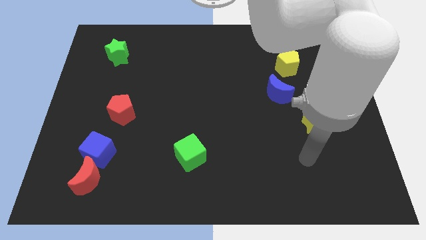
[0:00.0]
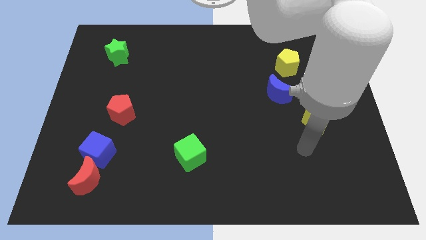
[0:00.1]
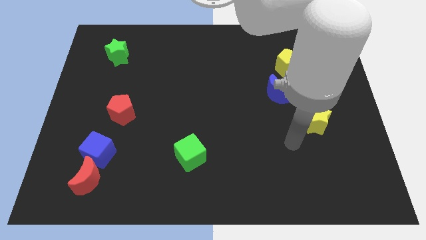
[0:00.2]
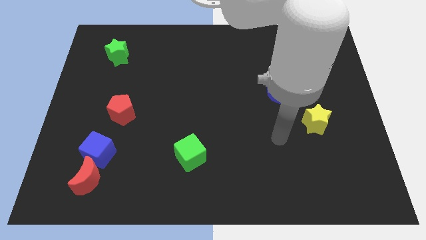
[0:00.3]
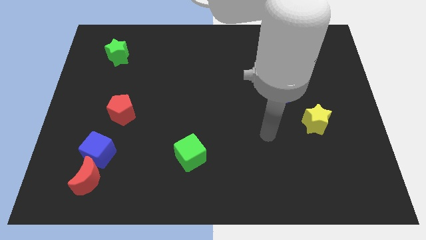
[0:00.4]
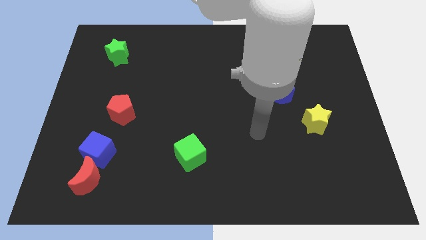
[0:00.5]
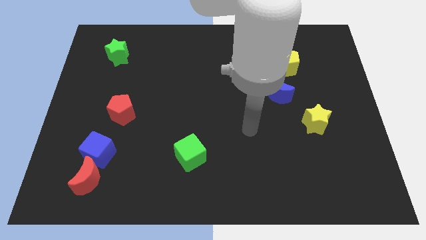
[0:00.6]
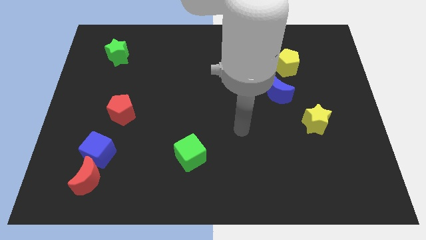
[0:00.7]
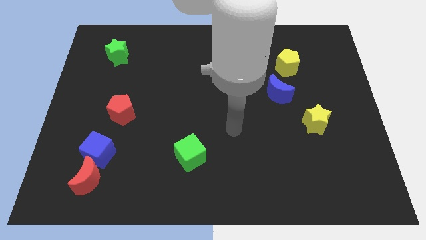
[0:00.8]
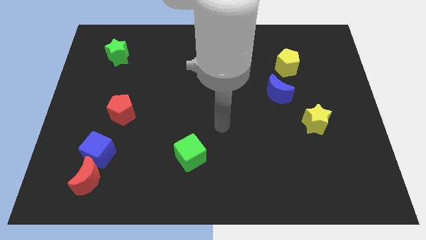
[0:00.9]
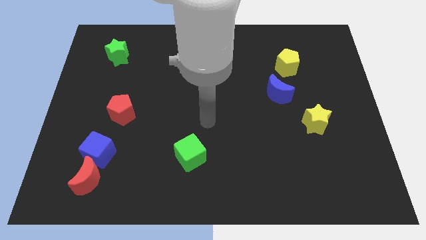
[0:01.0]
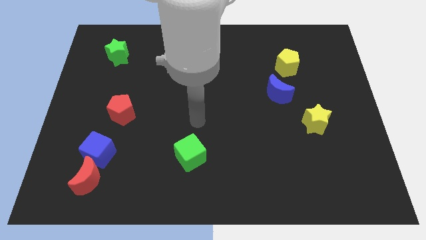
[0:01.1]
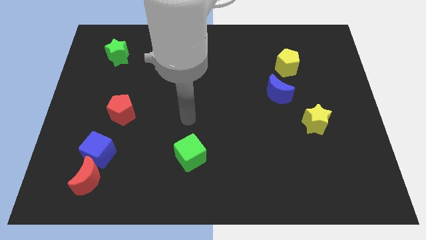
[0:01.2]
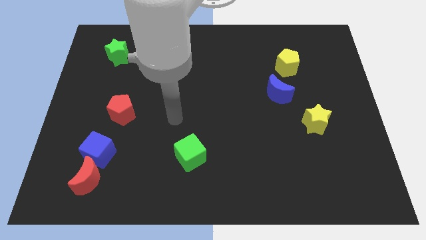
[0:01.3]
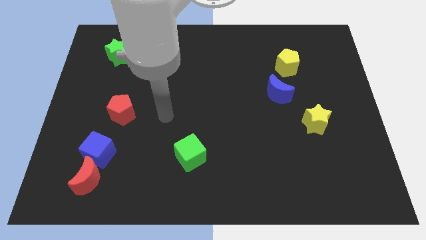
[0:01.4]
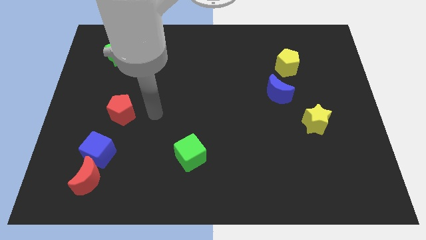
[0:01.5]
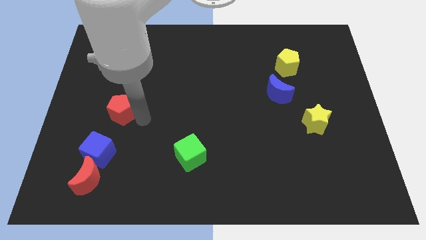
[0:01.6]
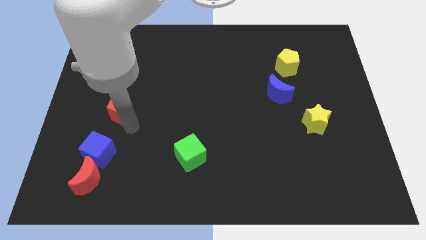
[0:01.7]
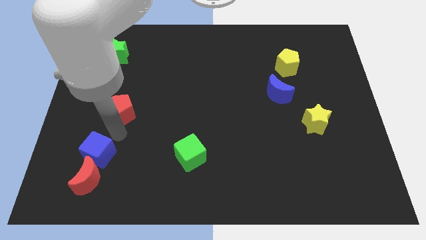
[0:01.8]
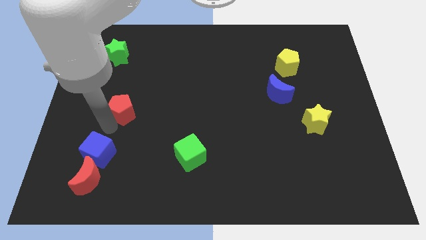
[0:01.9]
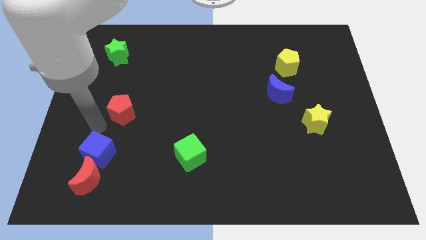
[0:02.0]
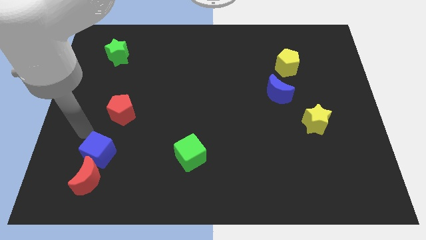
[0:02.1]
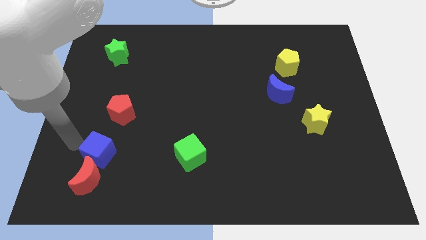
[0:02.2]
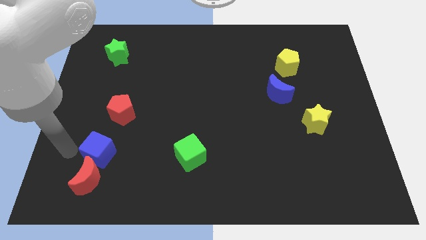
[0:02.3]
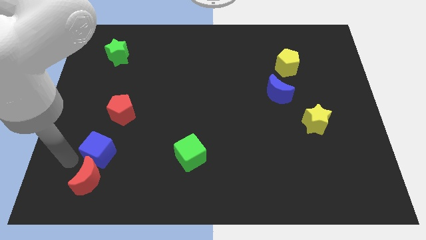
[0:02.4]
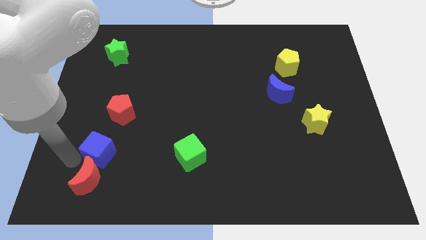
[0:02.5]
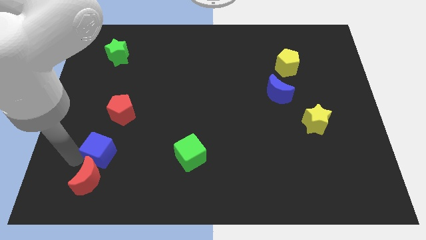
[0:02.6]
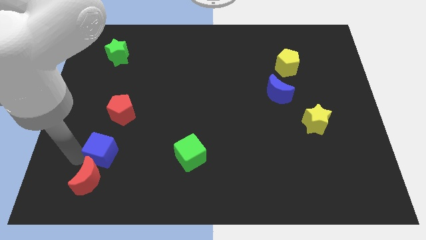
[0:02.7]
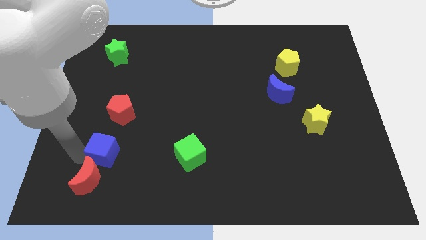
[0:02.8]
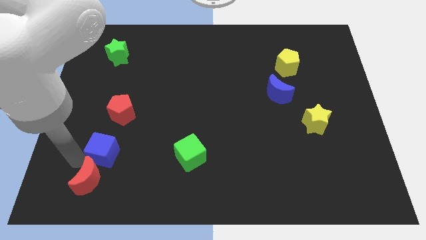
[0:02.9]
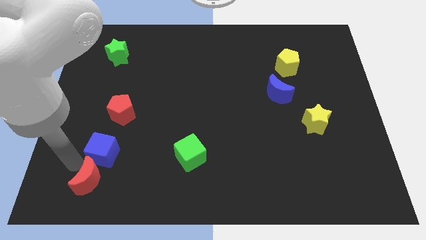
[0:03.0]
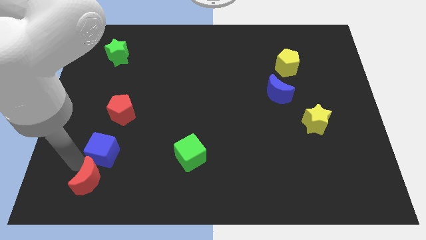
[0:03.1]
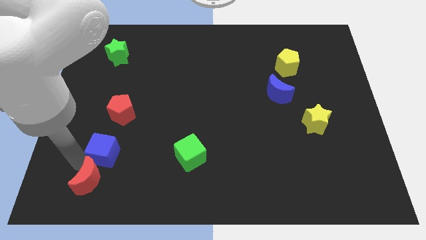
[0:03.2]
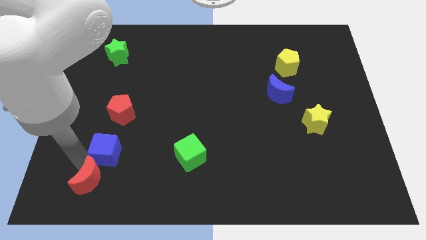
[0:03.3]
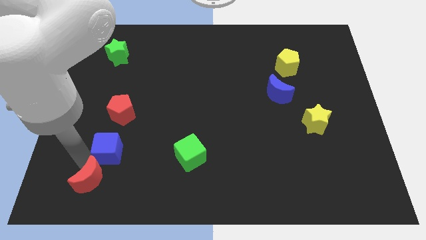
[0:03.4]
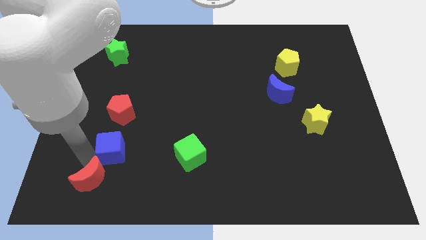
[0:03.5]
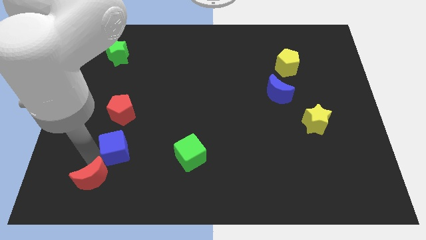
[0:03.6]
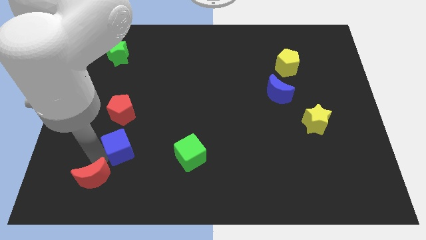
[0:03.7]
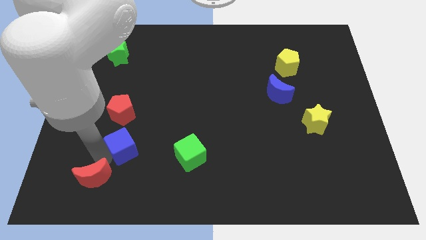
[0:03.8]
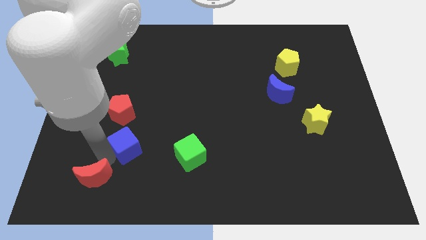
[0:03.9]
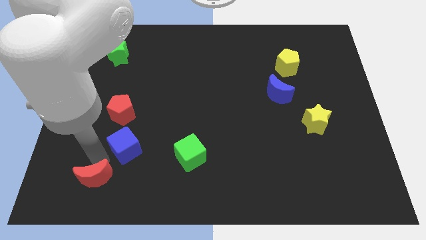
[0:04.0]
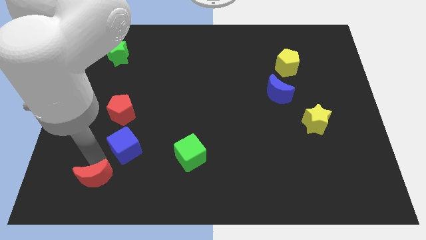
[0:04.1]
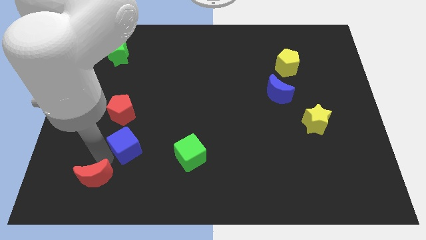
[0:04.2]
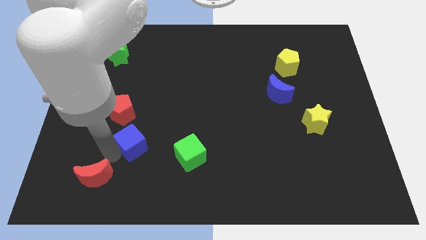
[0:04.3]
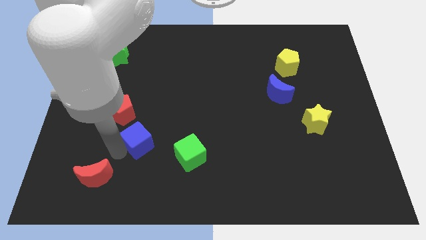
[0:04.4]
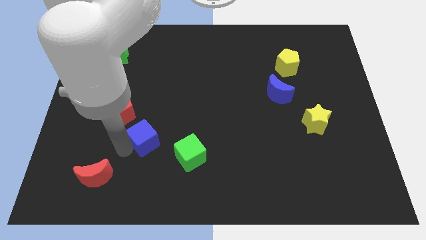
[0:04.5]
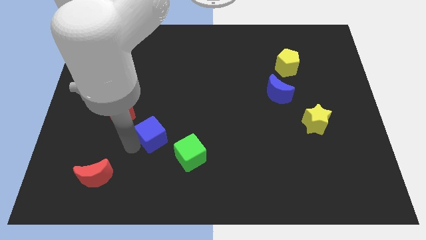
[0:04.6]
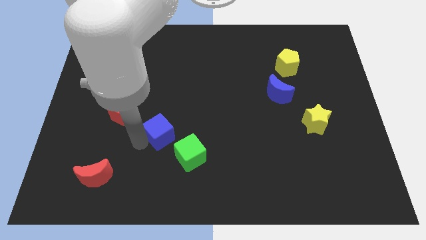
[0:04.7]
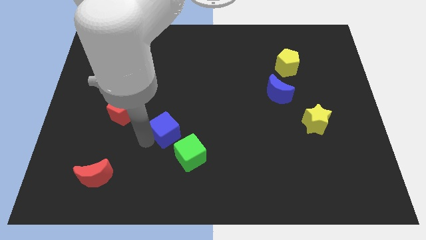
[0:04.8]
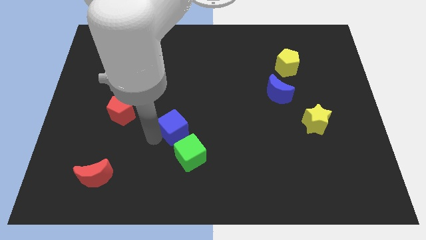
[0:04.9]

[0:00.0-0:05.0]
put the blue cube to the top of the green cube

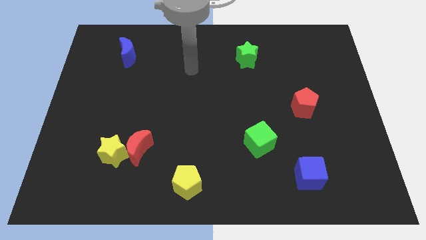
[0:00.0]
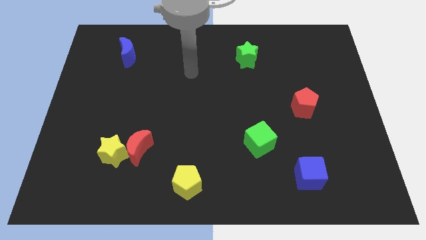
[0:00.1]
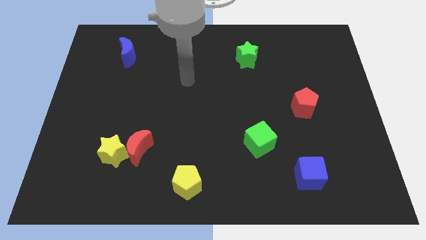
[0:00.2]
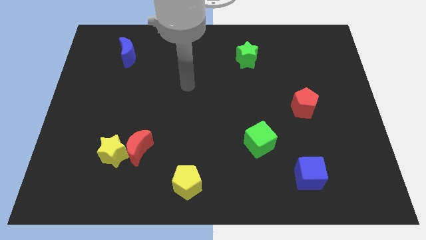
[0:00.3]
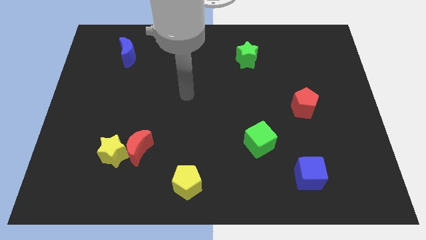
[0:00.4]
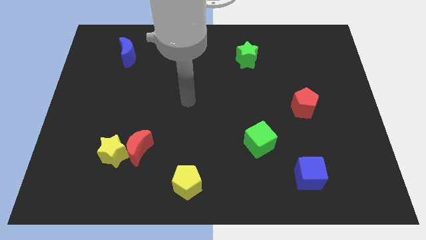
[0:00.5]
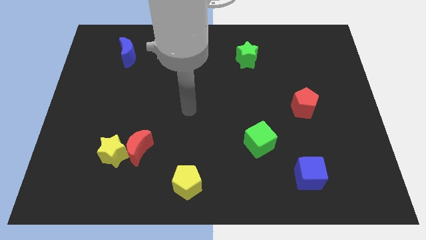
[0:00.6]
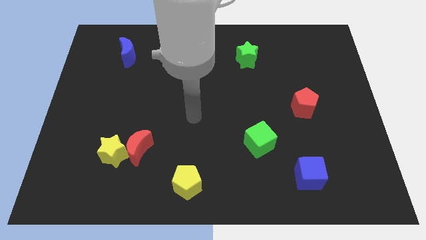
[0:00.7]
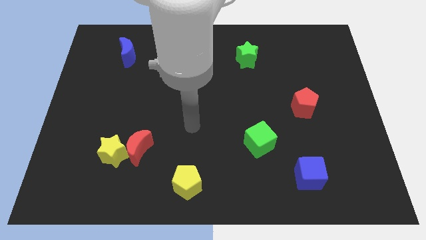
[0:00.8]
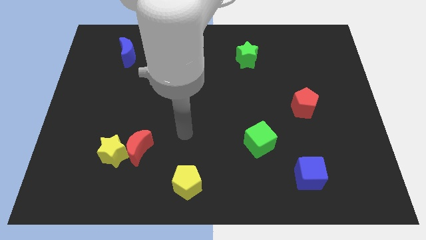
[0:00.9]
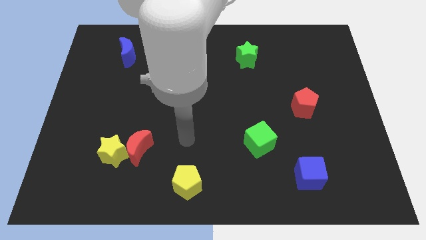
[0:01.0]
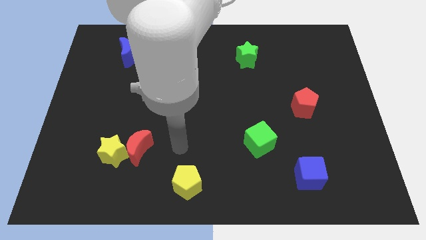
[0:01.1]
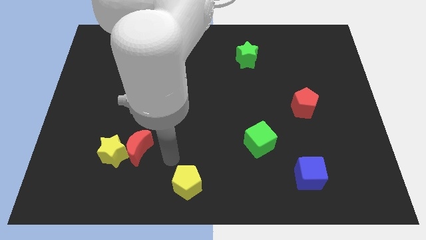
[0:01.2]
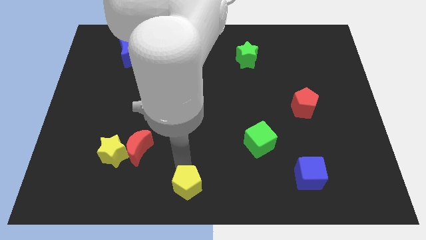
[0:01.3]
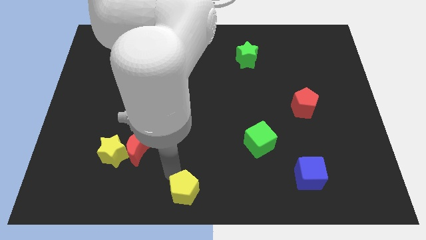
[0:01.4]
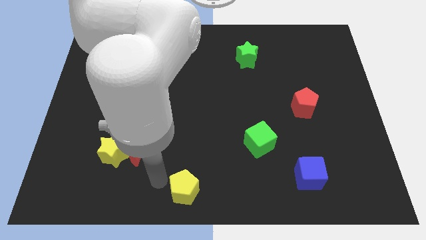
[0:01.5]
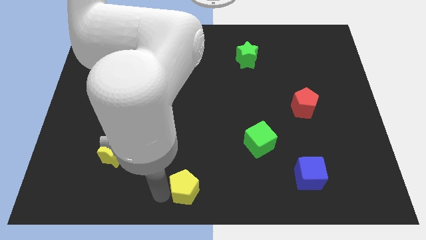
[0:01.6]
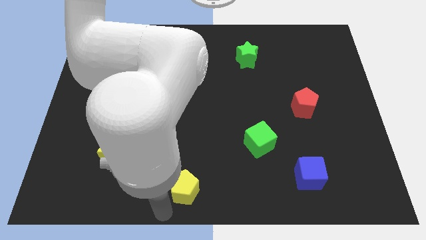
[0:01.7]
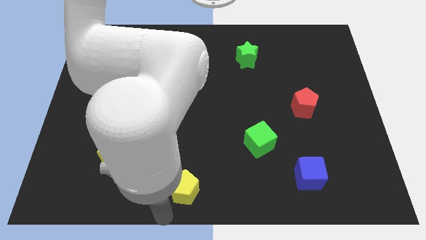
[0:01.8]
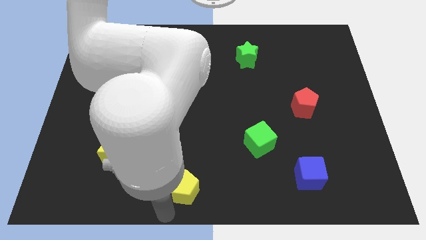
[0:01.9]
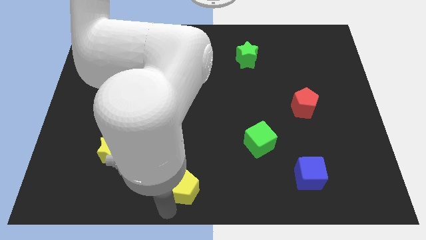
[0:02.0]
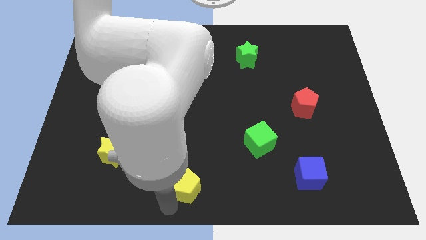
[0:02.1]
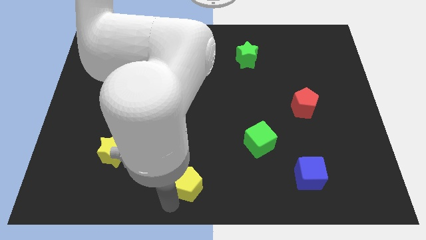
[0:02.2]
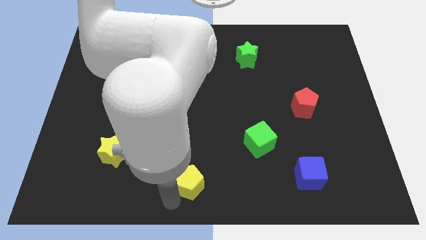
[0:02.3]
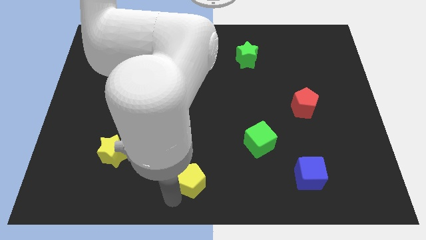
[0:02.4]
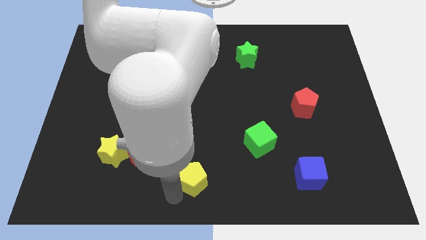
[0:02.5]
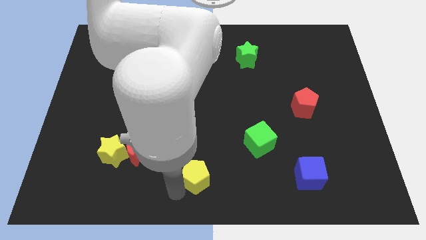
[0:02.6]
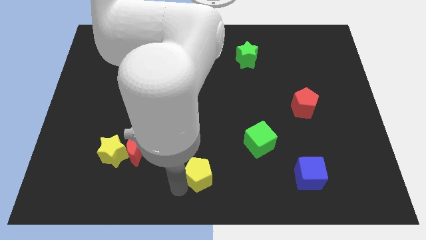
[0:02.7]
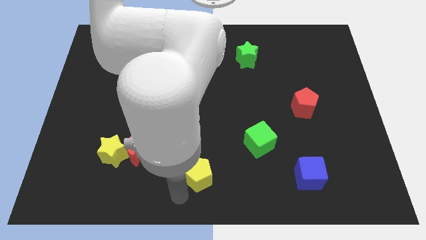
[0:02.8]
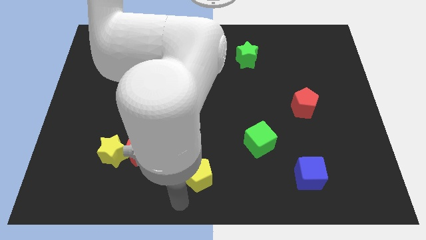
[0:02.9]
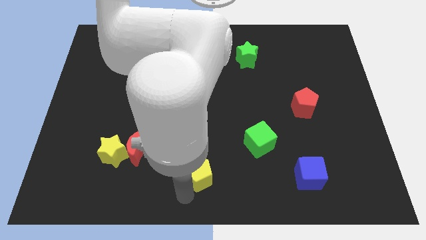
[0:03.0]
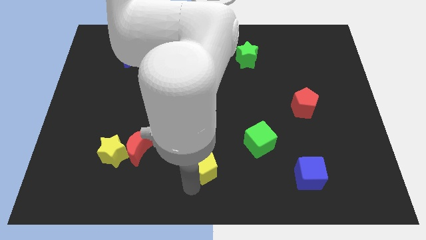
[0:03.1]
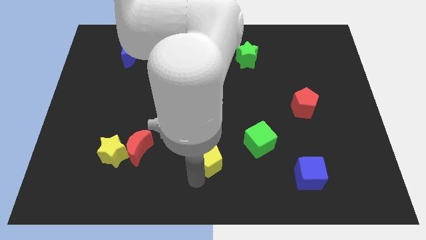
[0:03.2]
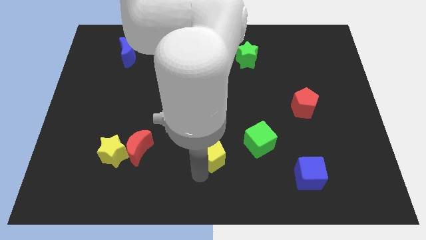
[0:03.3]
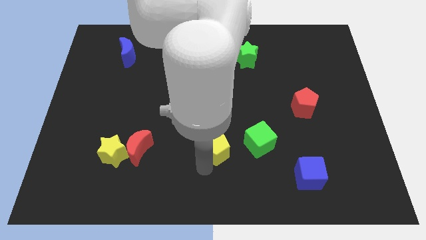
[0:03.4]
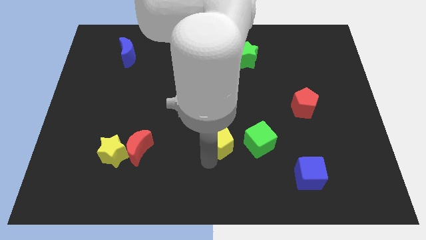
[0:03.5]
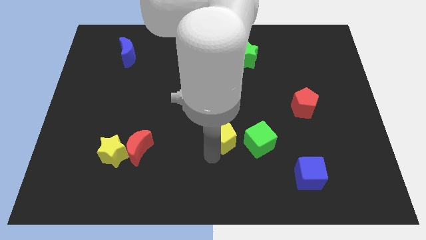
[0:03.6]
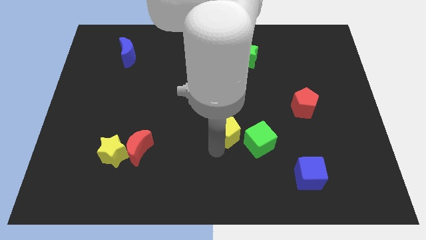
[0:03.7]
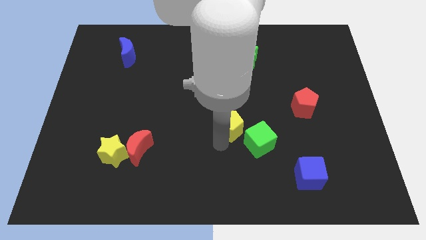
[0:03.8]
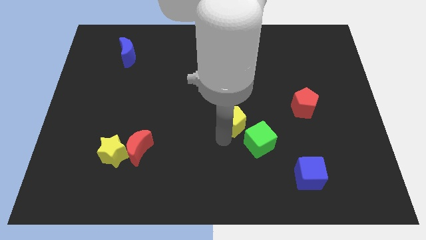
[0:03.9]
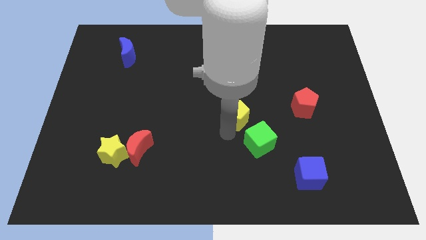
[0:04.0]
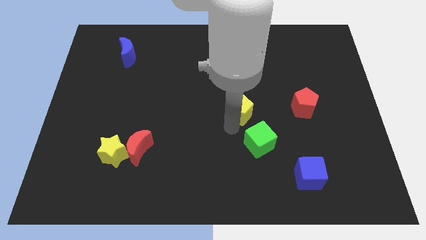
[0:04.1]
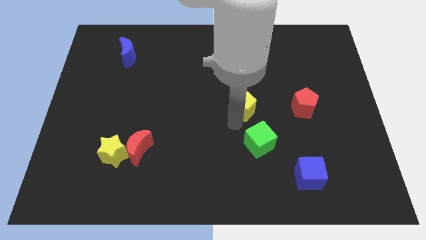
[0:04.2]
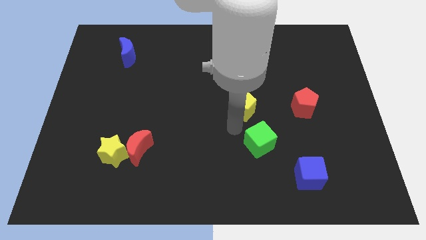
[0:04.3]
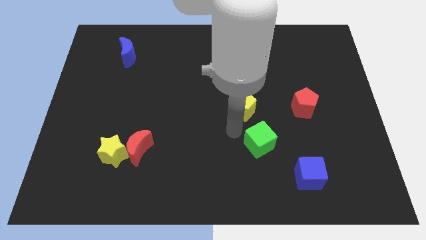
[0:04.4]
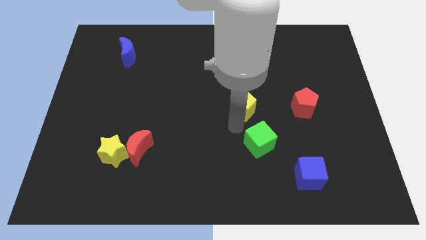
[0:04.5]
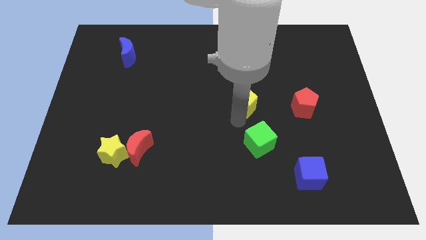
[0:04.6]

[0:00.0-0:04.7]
put the yellow pentagon to the bottom of the green star
